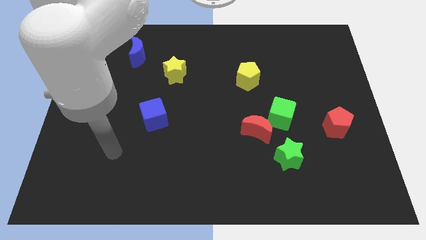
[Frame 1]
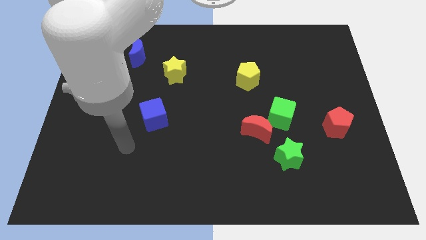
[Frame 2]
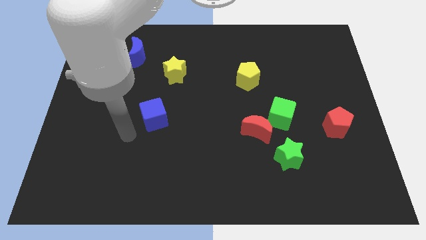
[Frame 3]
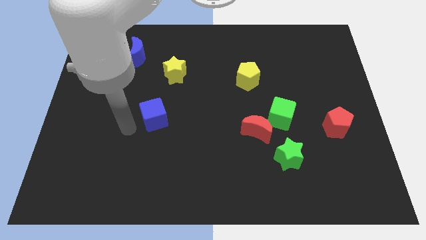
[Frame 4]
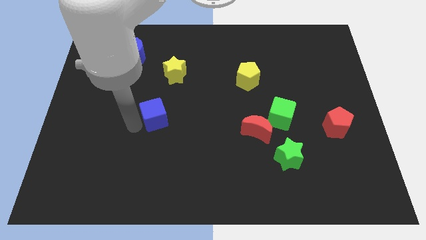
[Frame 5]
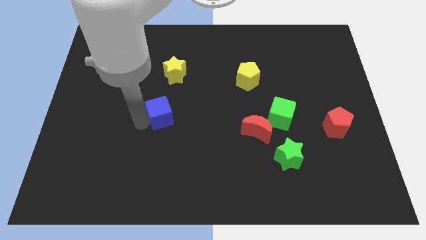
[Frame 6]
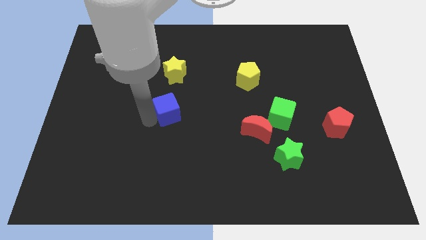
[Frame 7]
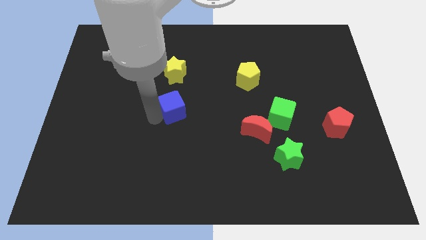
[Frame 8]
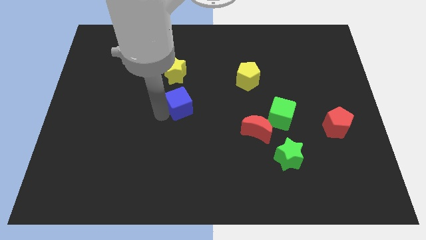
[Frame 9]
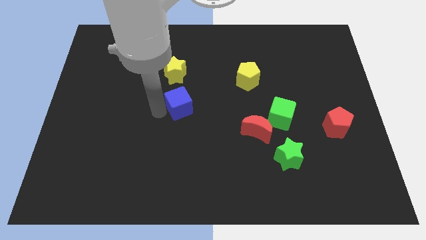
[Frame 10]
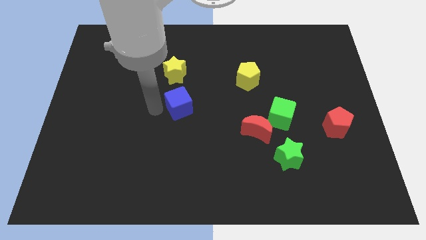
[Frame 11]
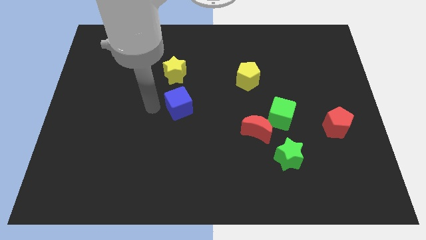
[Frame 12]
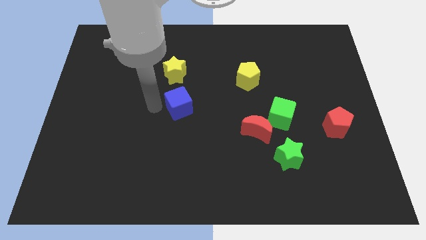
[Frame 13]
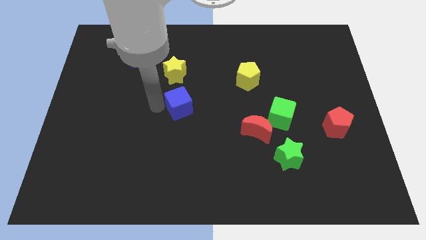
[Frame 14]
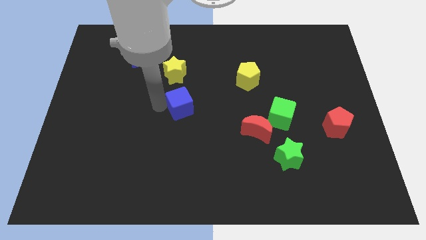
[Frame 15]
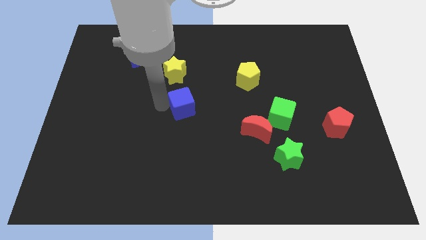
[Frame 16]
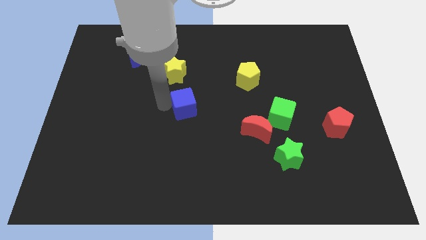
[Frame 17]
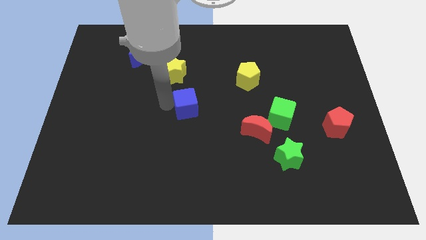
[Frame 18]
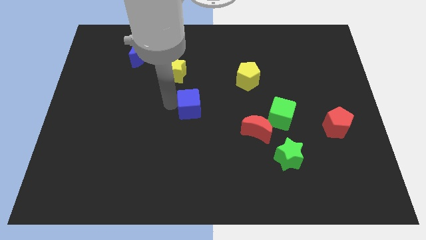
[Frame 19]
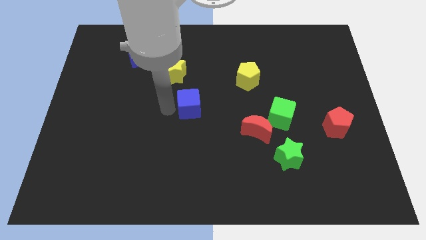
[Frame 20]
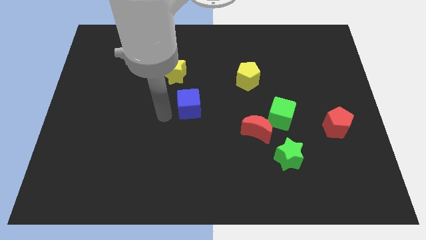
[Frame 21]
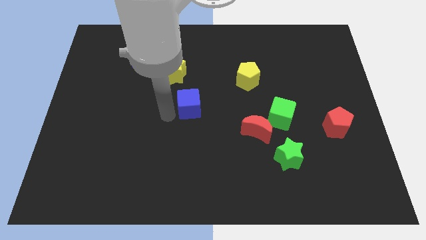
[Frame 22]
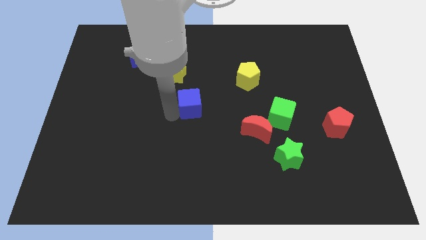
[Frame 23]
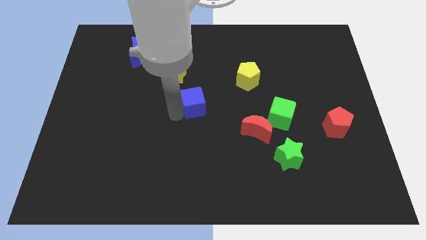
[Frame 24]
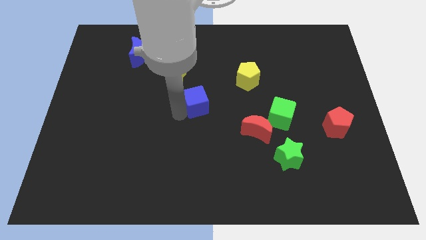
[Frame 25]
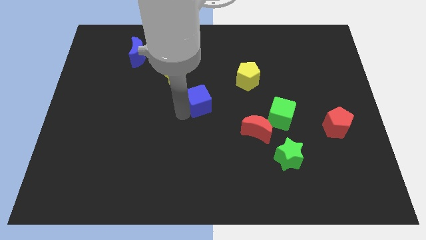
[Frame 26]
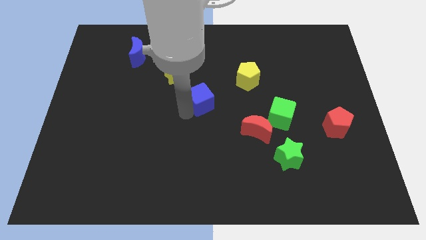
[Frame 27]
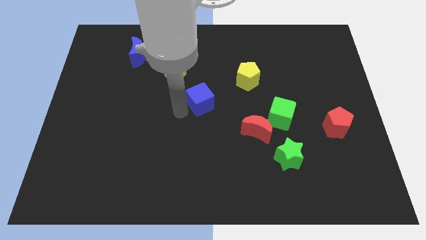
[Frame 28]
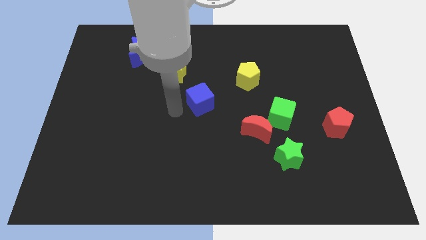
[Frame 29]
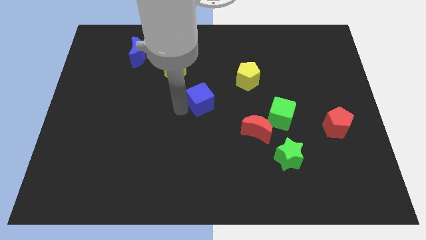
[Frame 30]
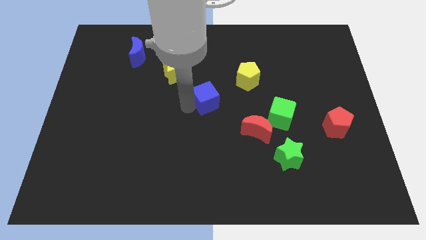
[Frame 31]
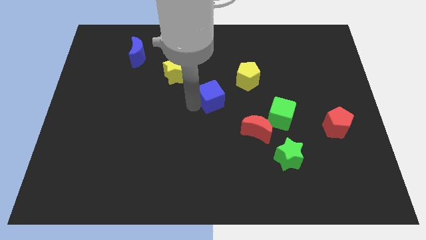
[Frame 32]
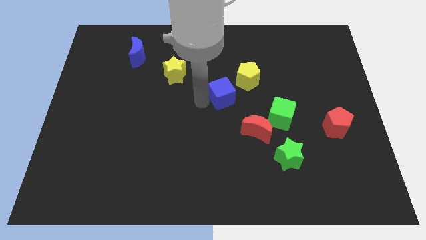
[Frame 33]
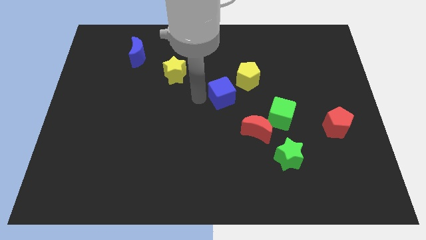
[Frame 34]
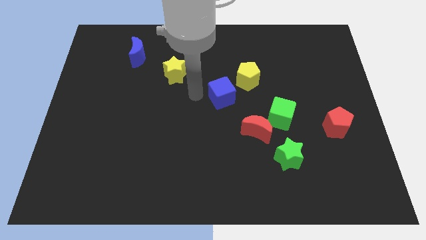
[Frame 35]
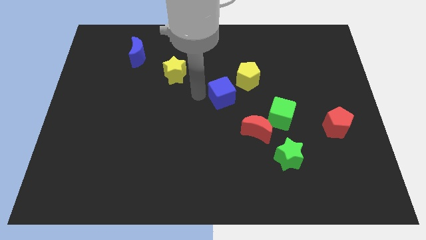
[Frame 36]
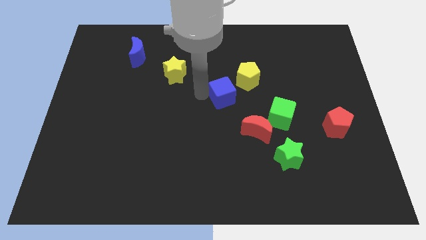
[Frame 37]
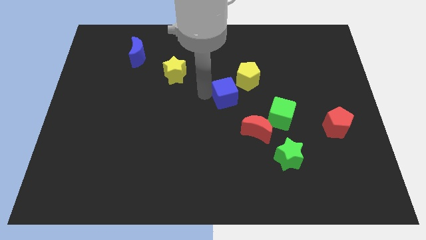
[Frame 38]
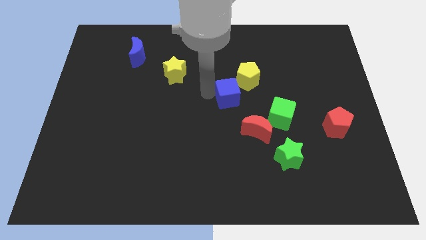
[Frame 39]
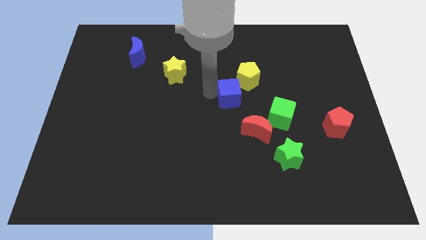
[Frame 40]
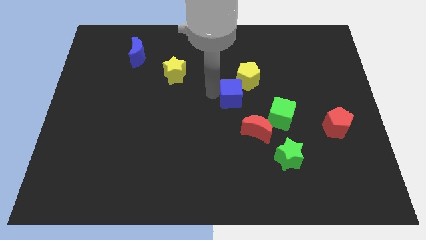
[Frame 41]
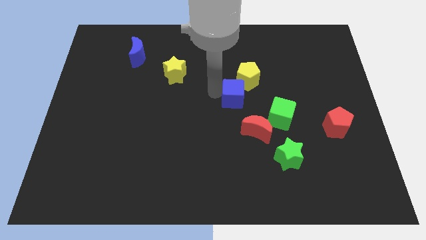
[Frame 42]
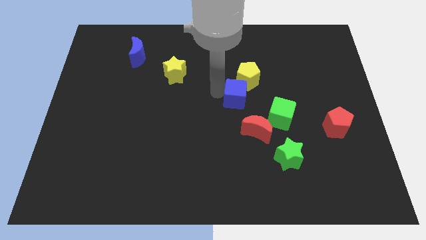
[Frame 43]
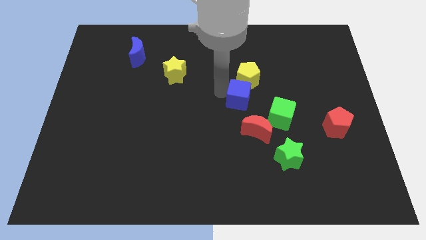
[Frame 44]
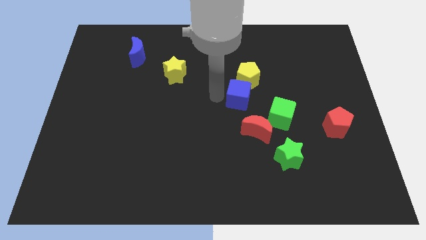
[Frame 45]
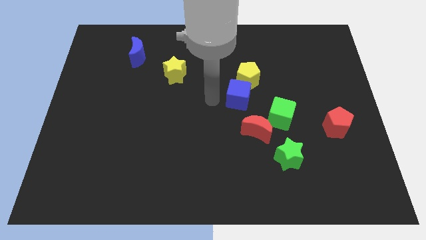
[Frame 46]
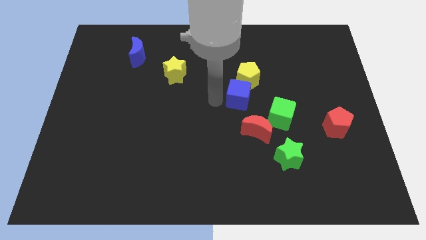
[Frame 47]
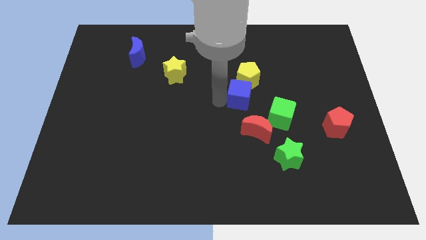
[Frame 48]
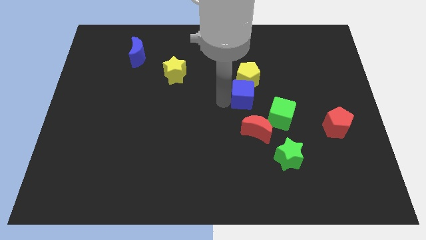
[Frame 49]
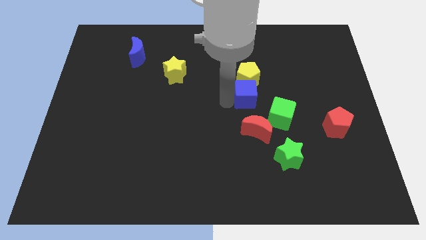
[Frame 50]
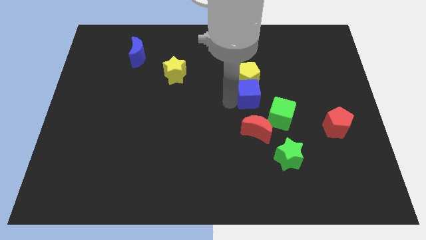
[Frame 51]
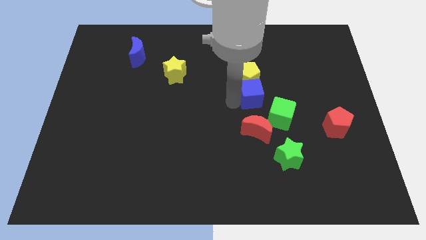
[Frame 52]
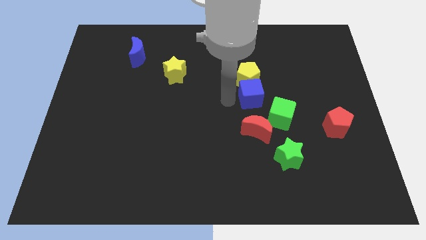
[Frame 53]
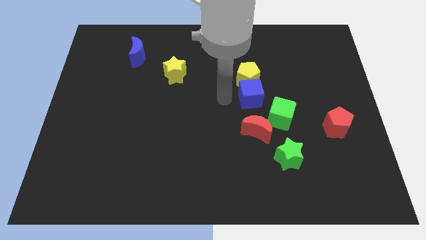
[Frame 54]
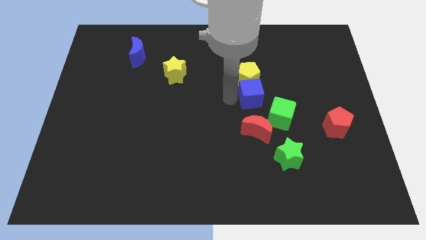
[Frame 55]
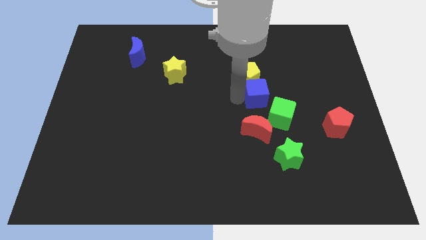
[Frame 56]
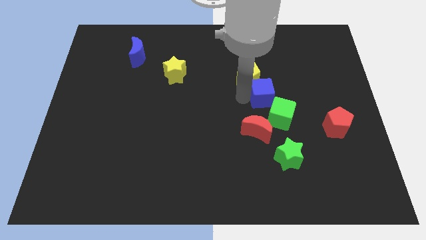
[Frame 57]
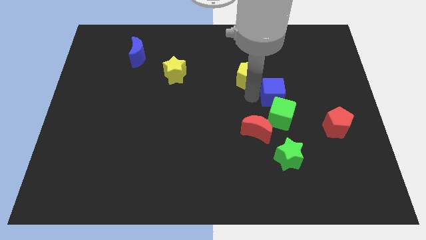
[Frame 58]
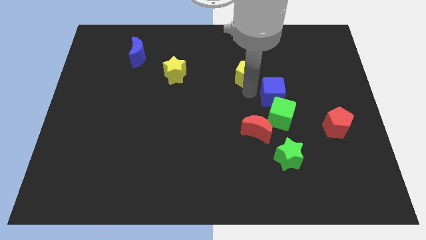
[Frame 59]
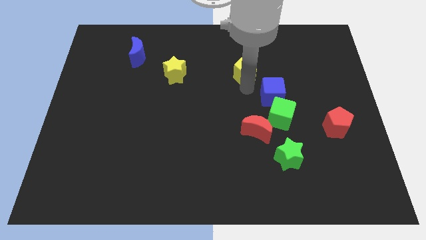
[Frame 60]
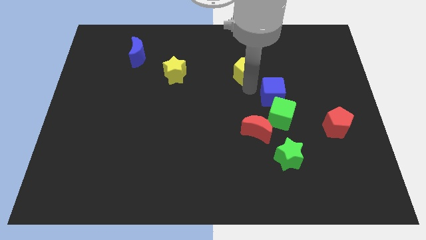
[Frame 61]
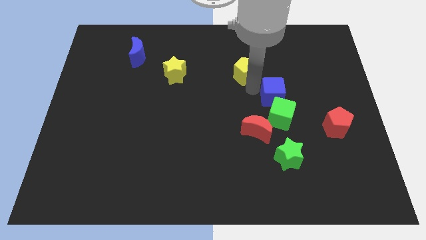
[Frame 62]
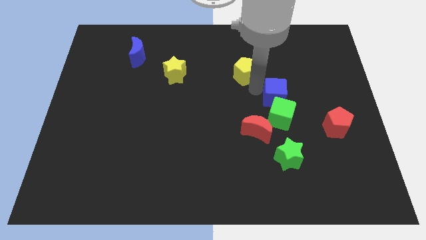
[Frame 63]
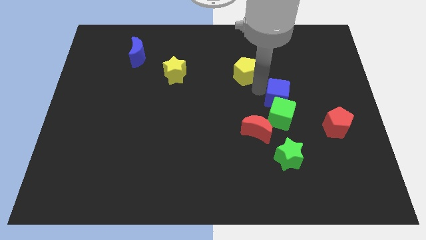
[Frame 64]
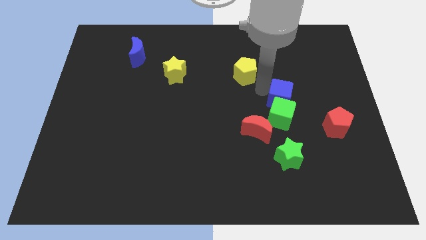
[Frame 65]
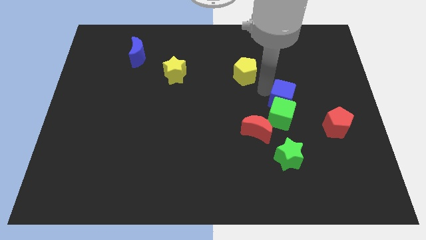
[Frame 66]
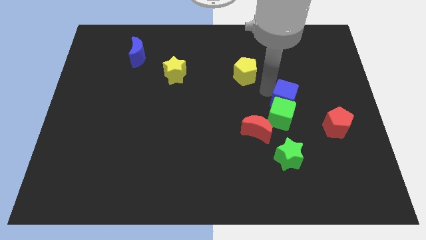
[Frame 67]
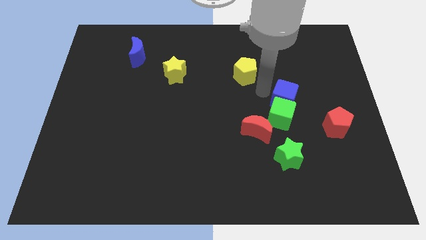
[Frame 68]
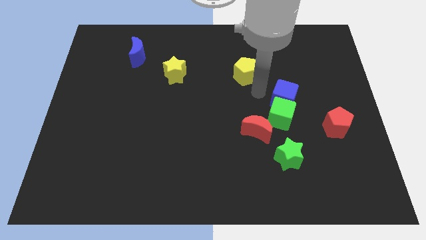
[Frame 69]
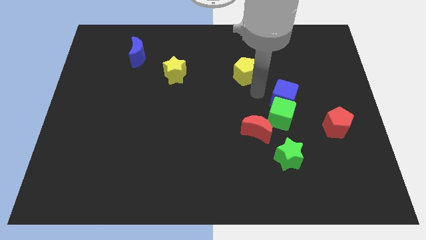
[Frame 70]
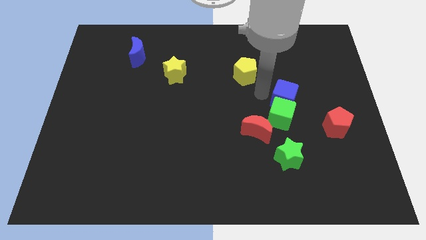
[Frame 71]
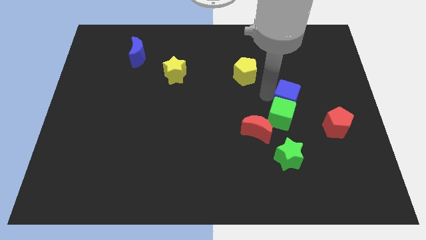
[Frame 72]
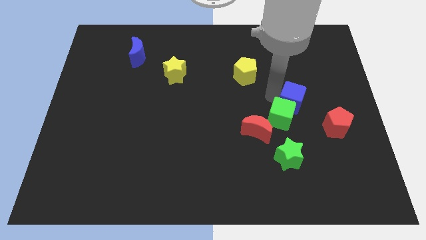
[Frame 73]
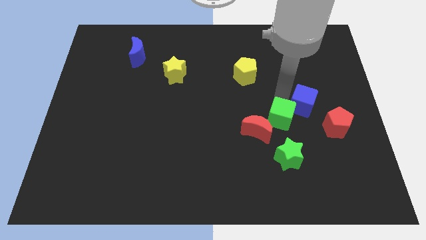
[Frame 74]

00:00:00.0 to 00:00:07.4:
push the blue cube to the right of the green cube
